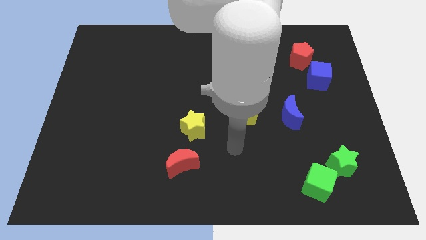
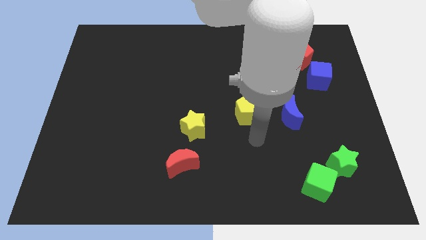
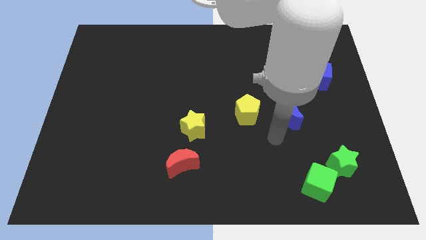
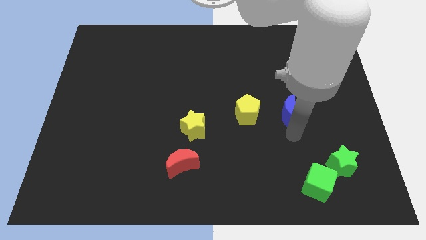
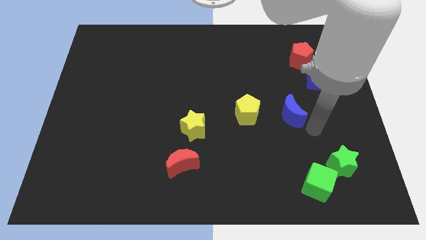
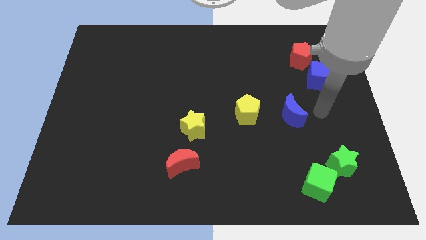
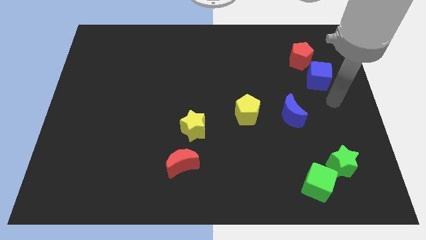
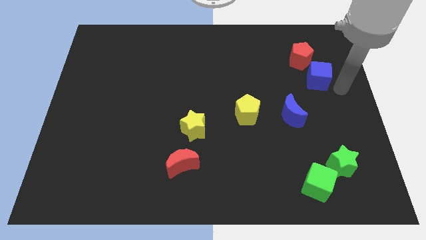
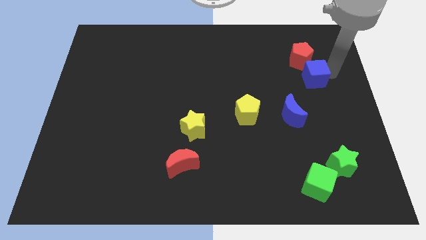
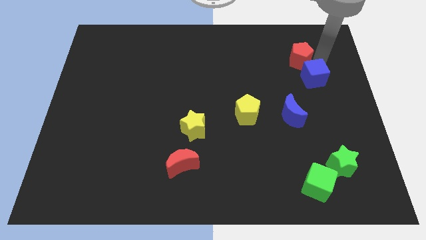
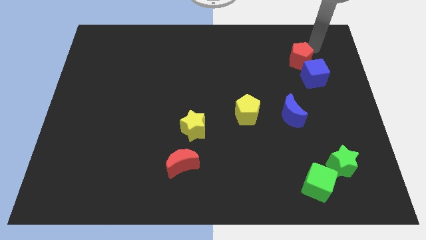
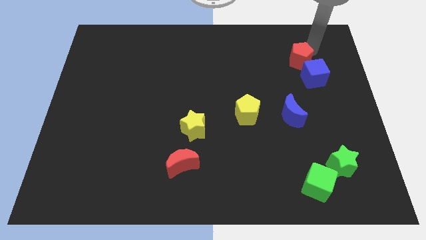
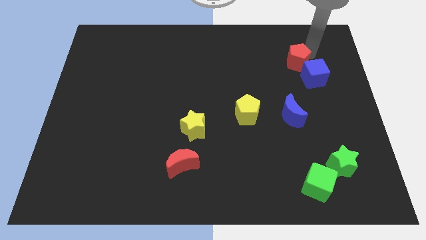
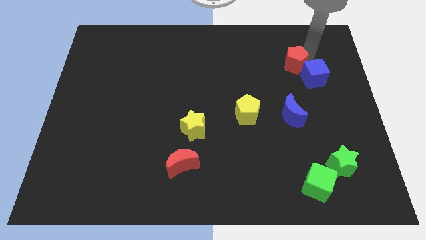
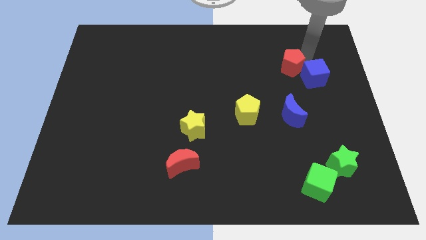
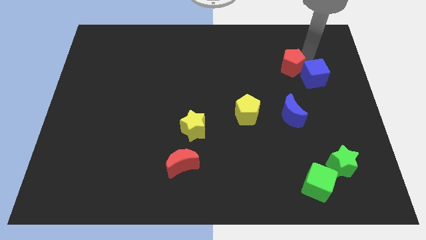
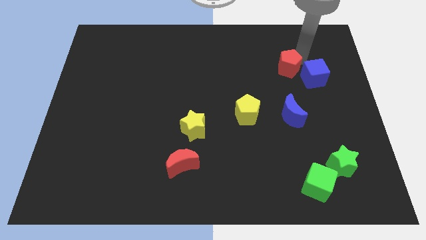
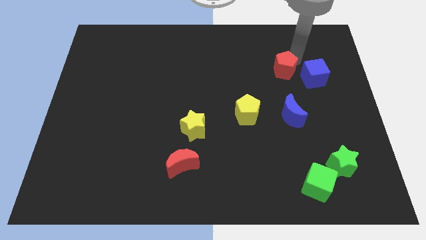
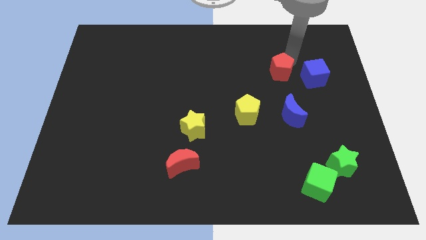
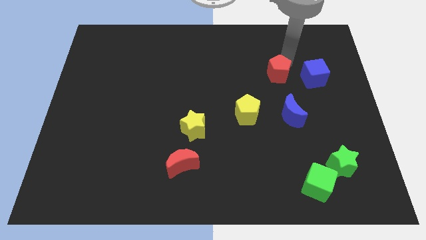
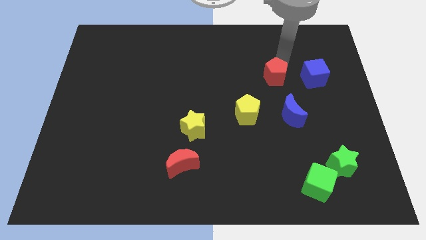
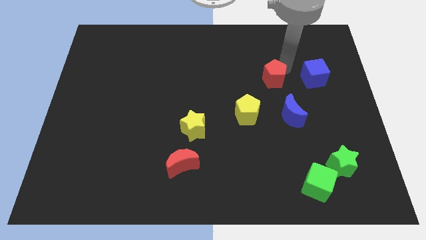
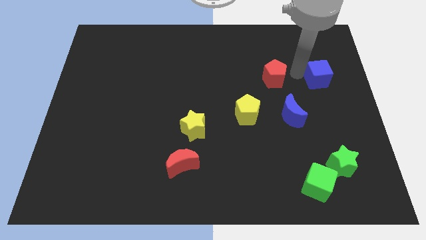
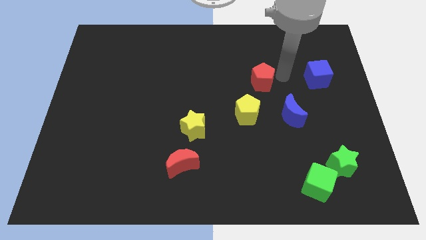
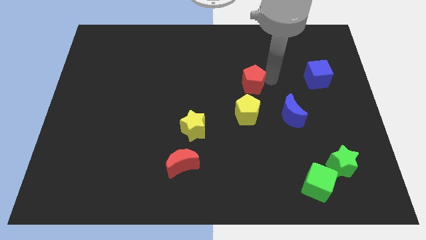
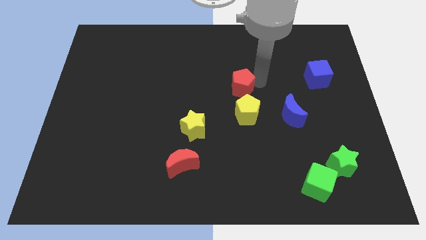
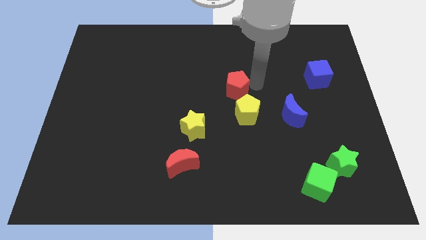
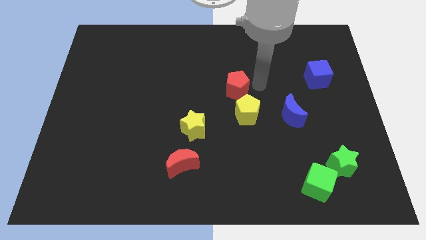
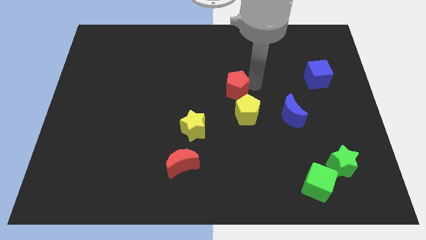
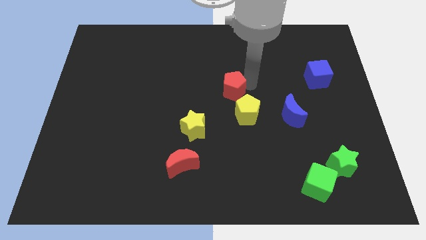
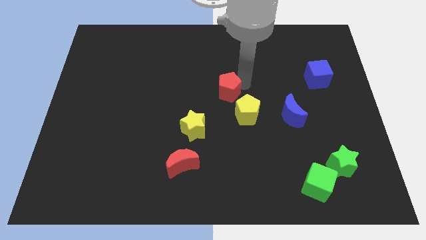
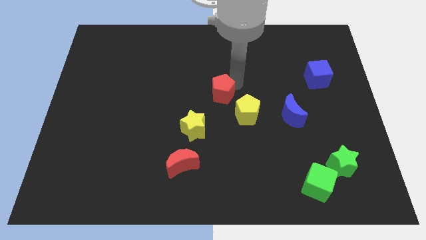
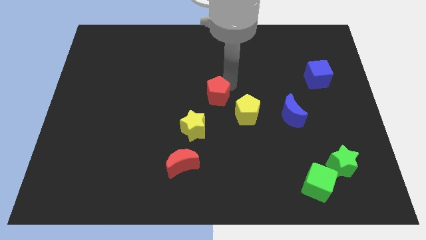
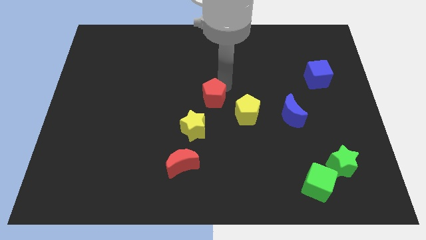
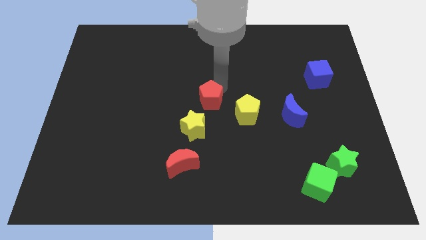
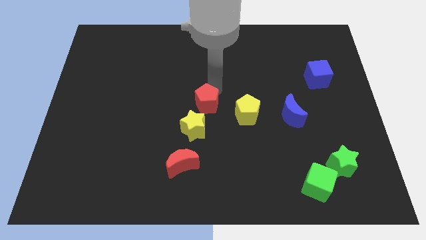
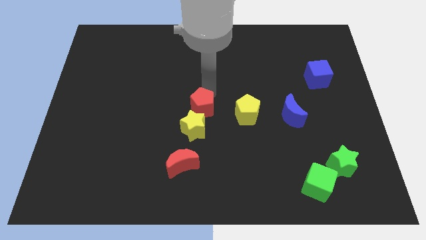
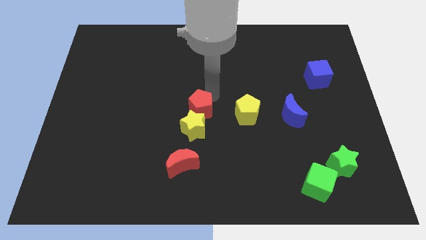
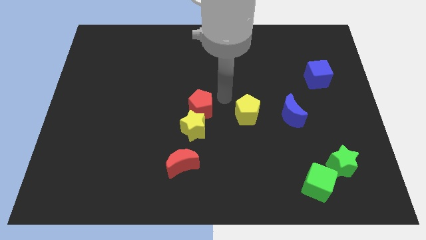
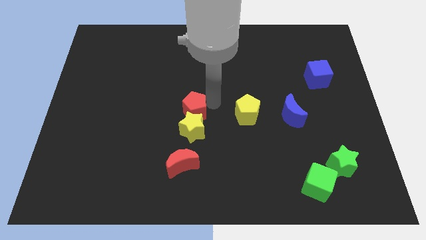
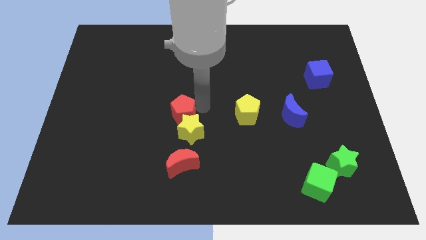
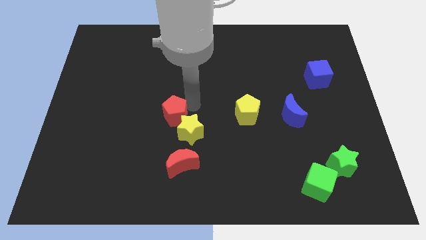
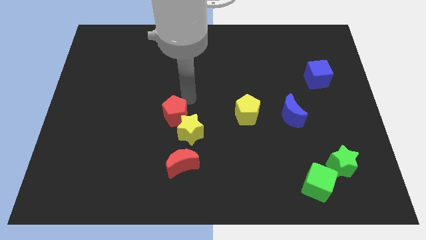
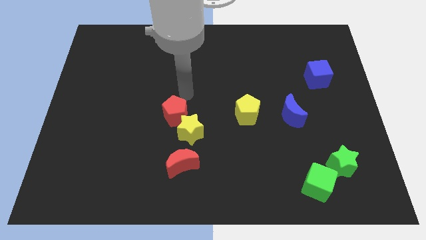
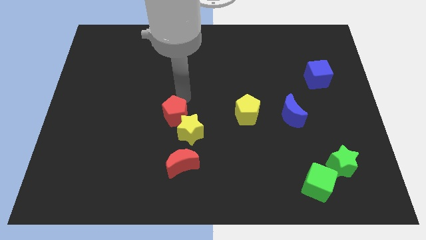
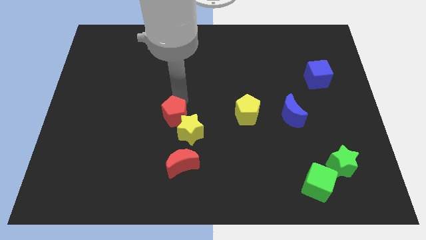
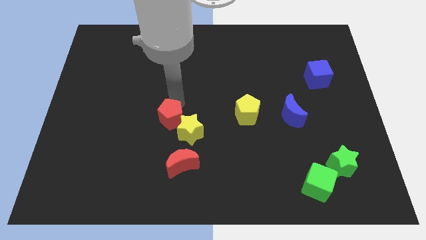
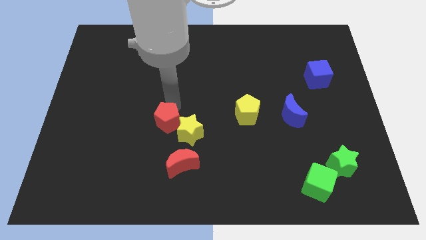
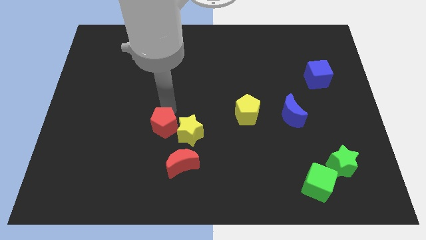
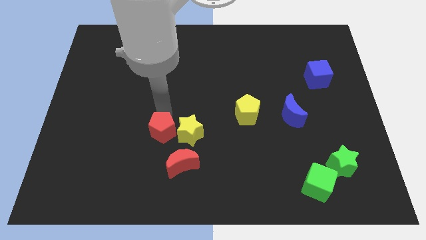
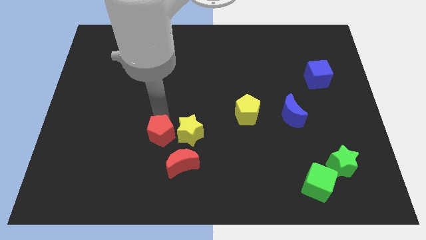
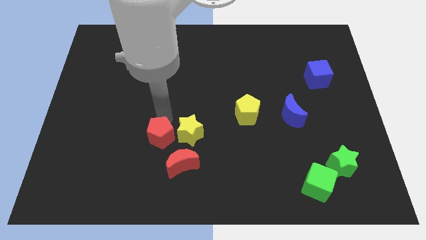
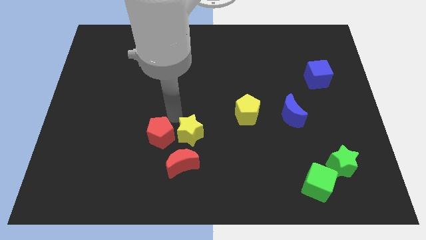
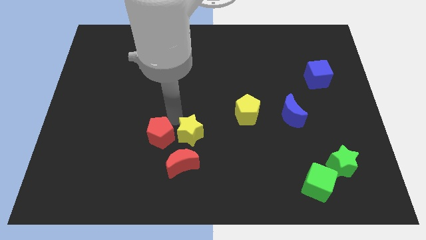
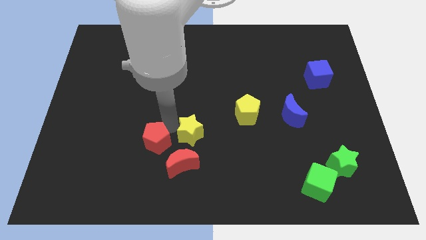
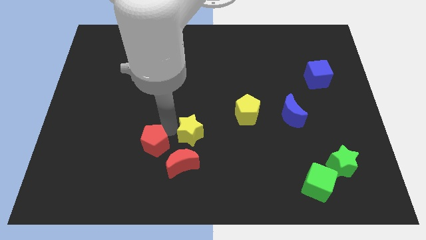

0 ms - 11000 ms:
put the red pentagon to the left of the red moon

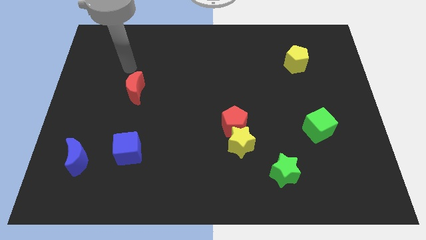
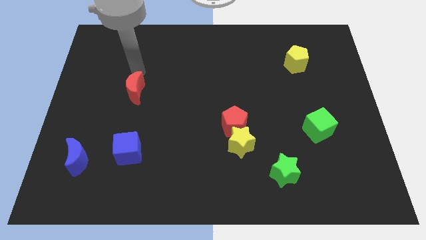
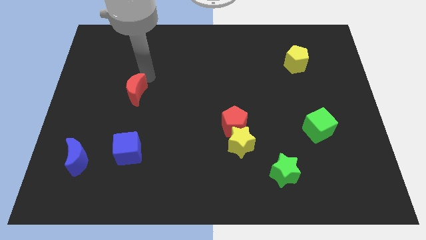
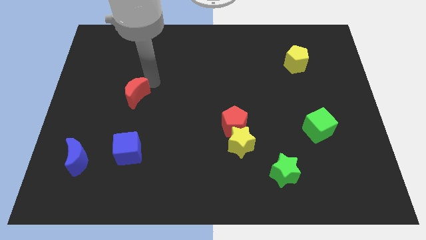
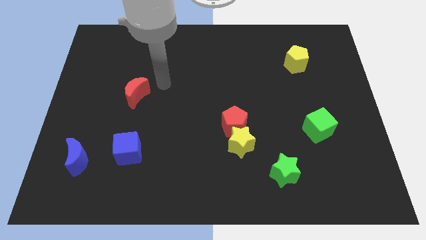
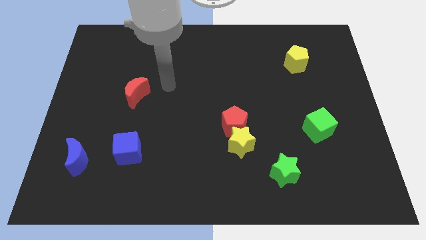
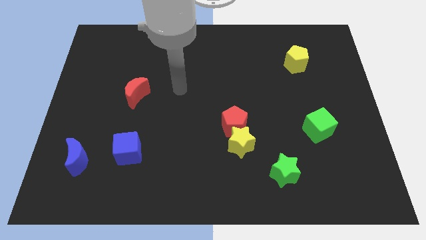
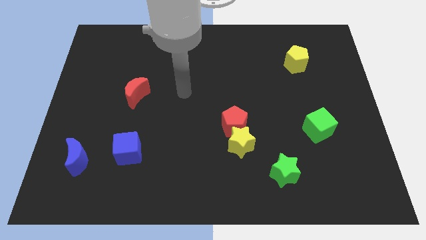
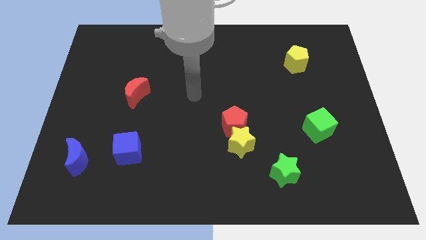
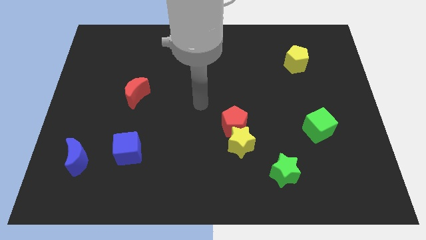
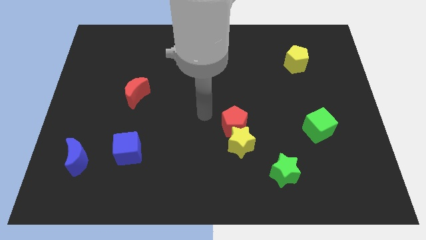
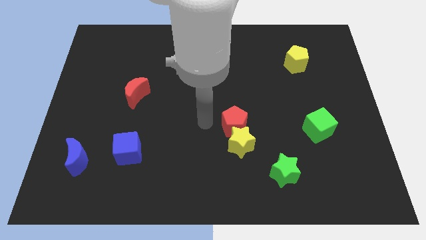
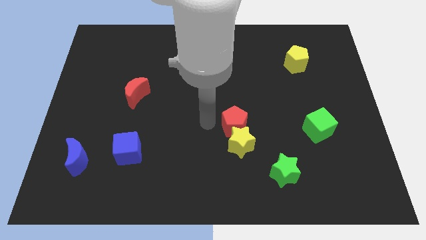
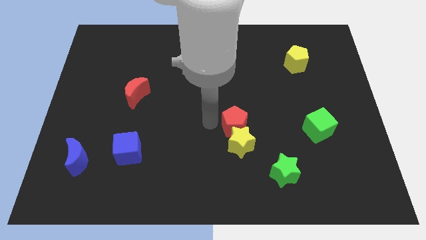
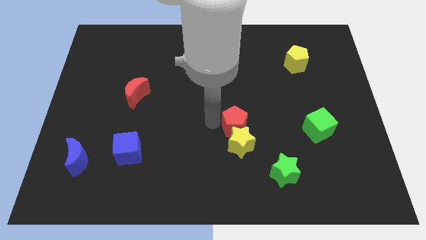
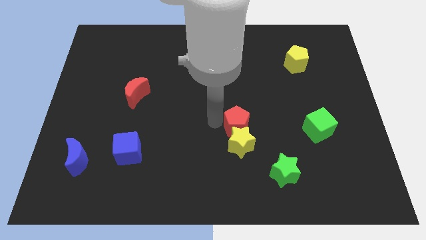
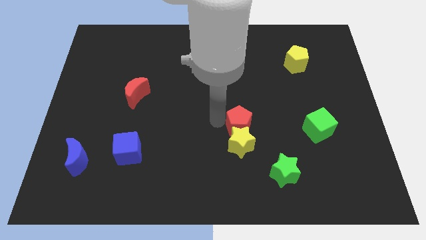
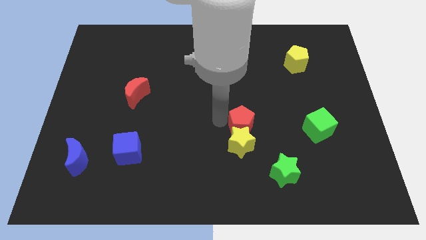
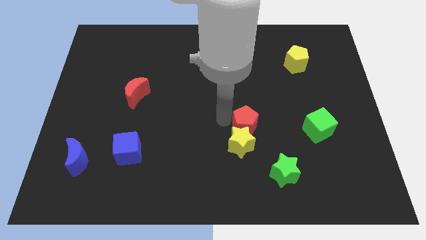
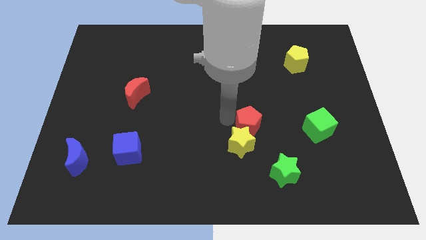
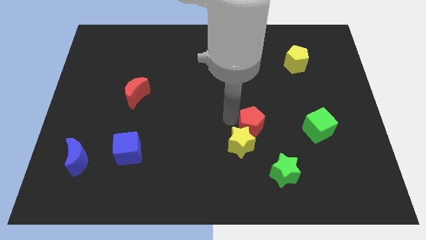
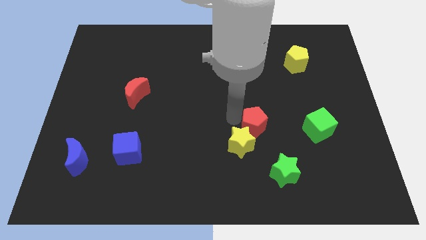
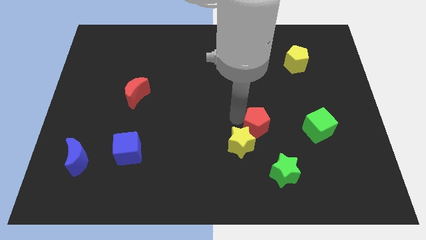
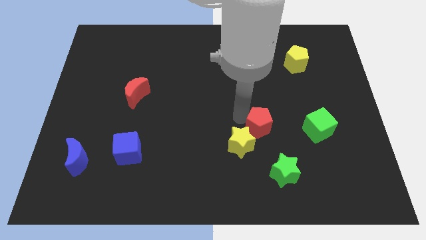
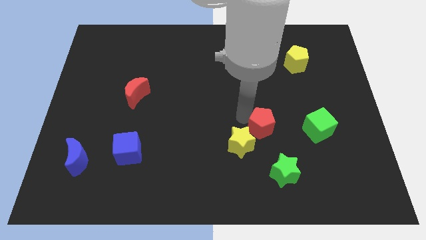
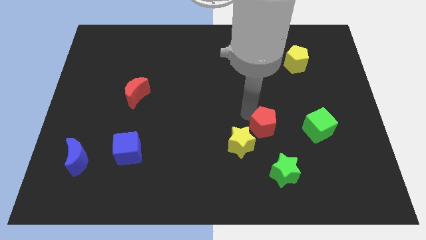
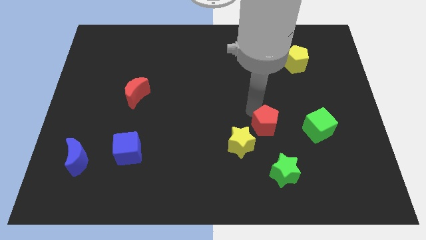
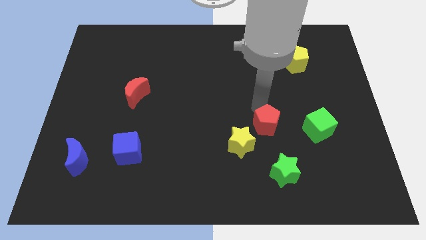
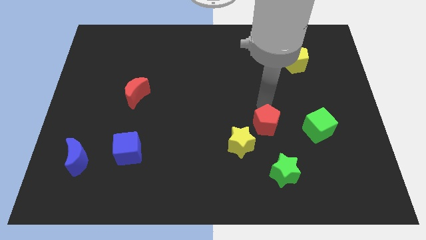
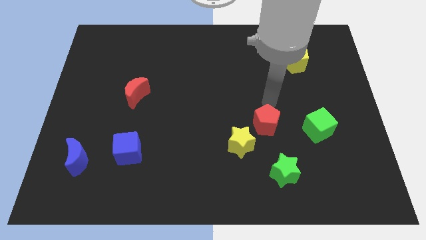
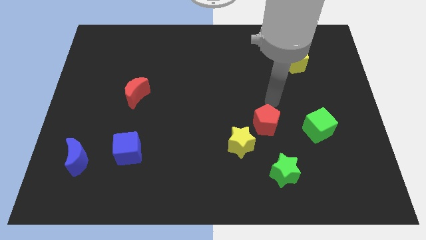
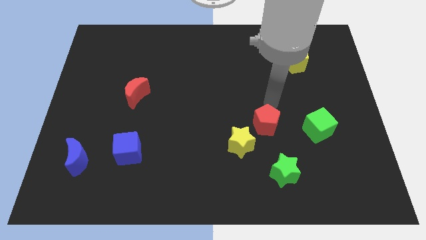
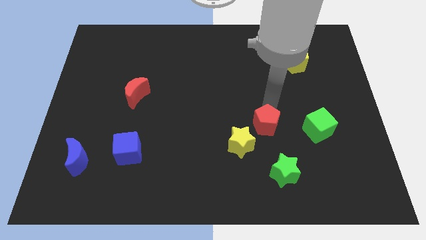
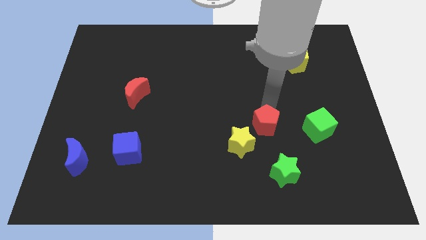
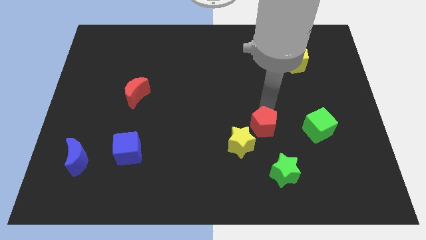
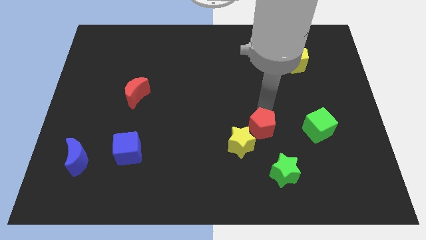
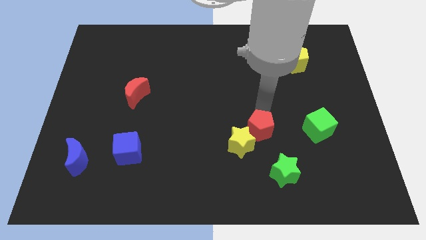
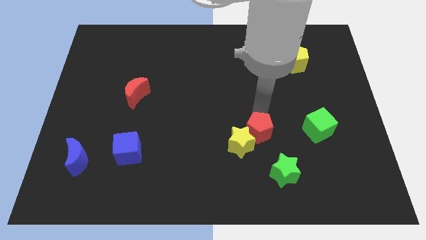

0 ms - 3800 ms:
move the red pentagon to the top left of the green star
